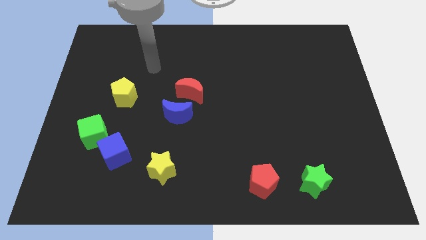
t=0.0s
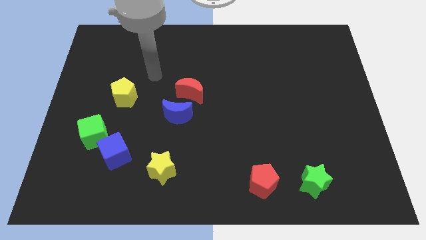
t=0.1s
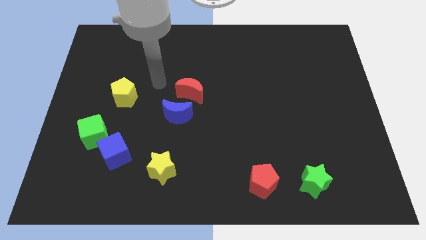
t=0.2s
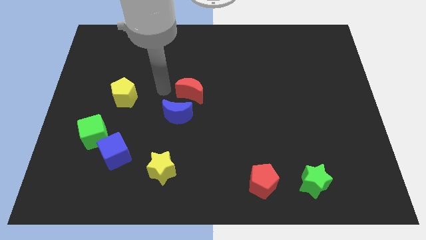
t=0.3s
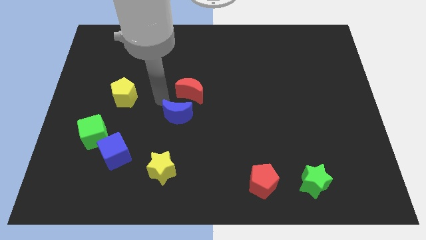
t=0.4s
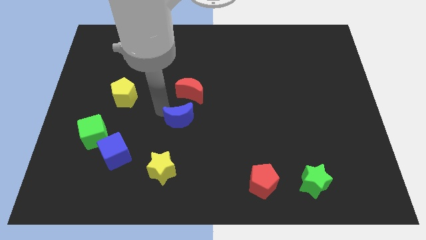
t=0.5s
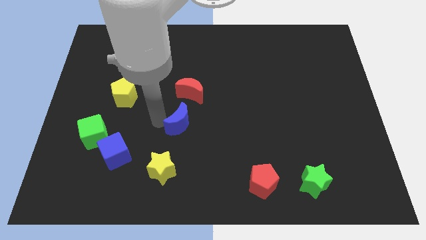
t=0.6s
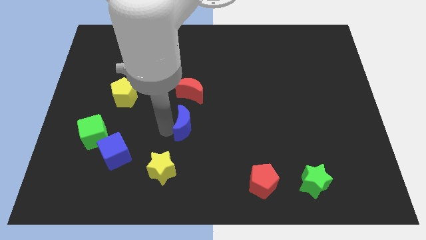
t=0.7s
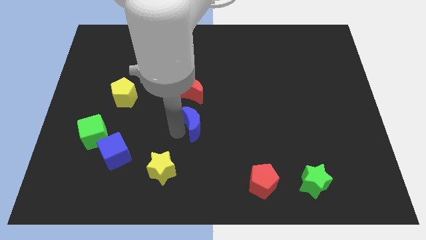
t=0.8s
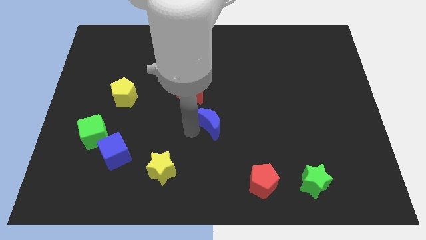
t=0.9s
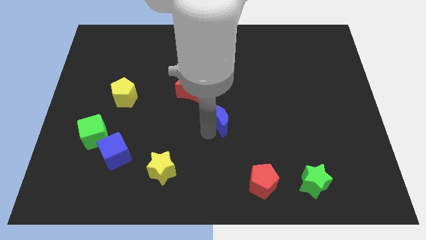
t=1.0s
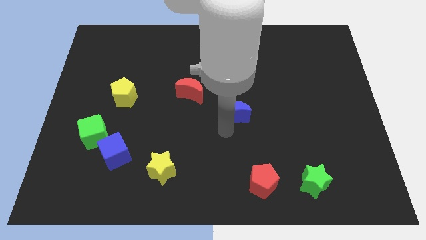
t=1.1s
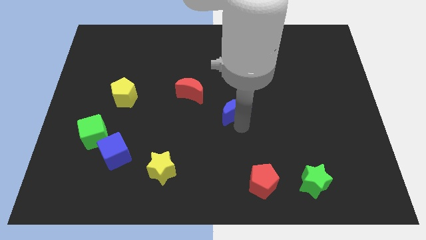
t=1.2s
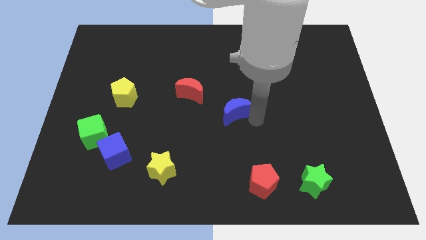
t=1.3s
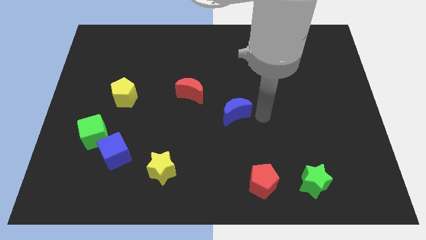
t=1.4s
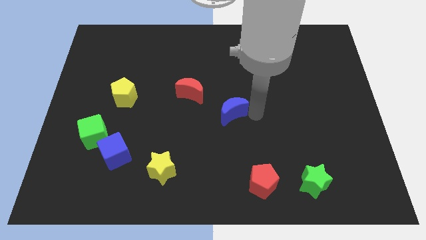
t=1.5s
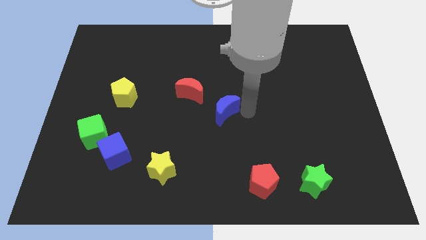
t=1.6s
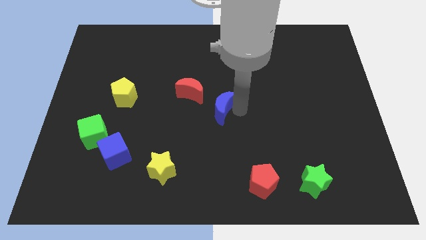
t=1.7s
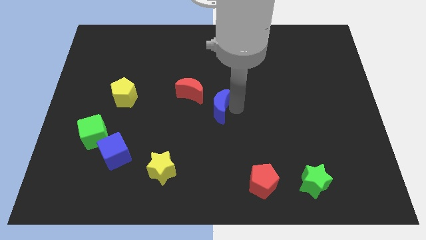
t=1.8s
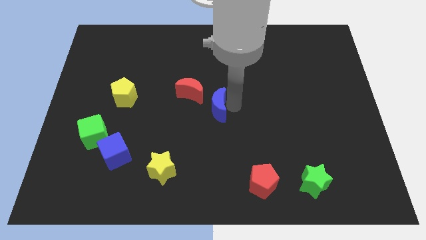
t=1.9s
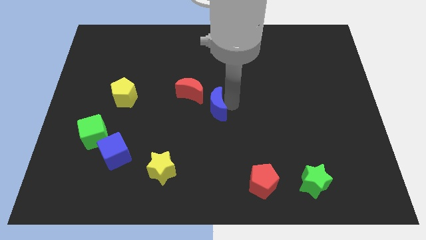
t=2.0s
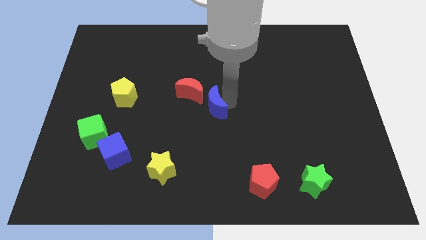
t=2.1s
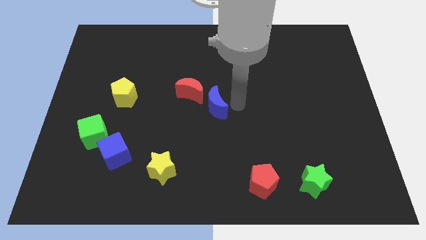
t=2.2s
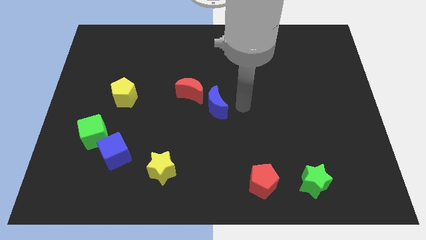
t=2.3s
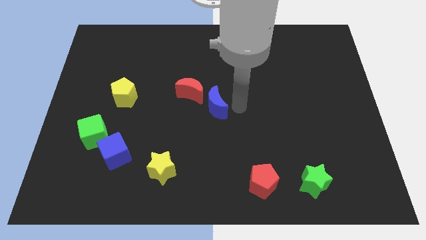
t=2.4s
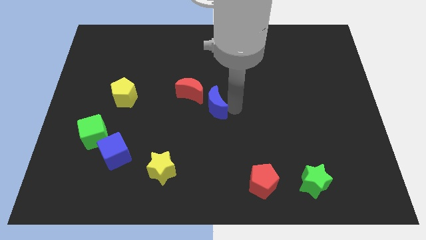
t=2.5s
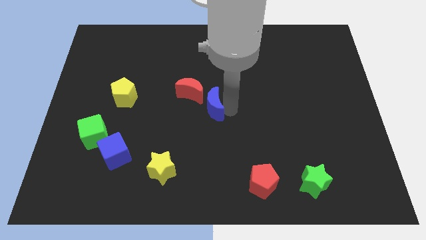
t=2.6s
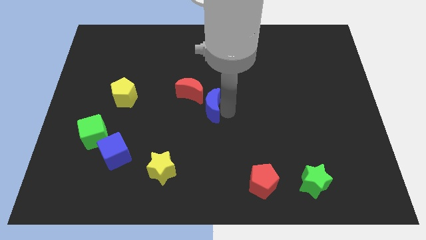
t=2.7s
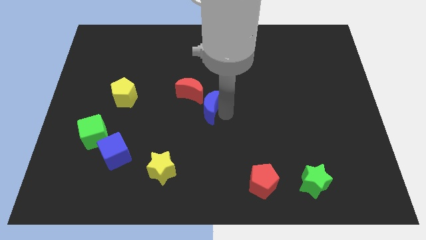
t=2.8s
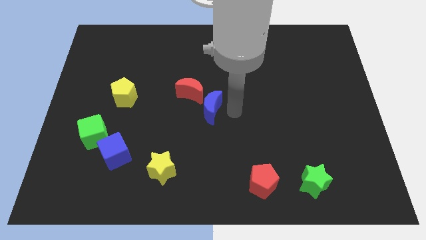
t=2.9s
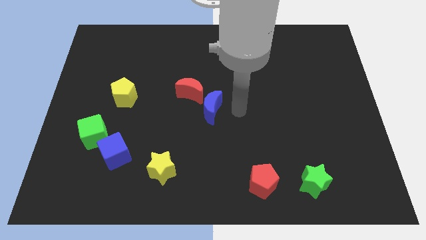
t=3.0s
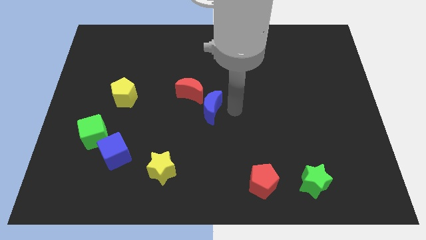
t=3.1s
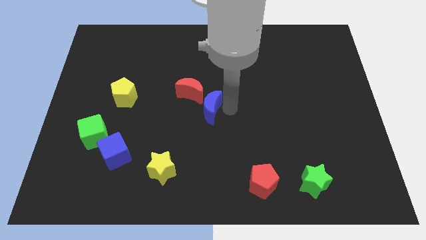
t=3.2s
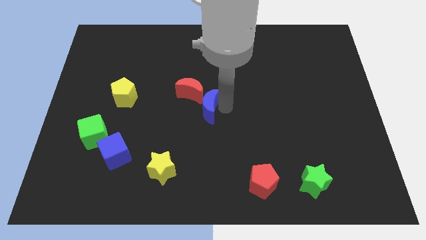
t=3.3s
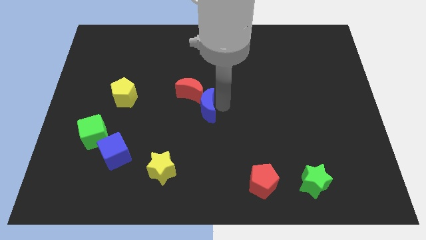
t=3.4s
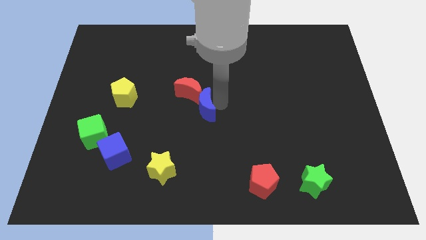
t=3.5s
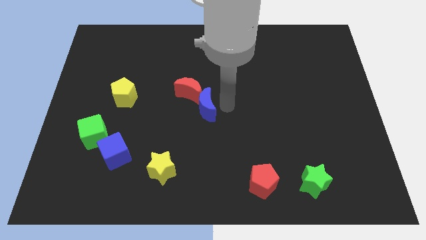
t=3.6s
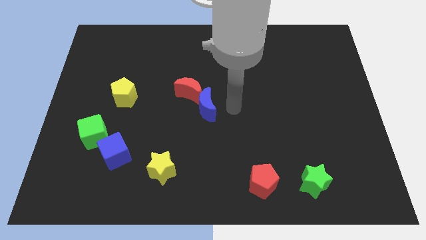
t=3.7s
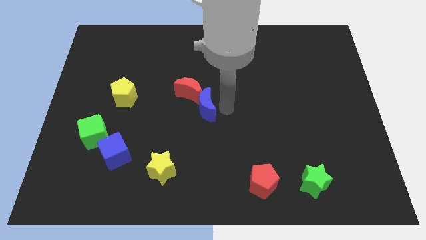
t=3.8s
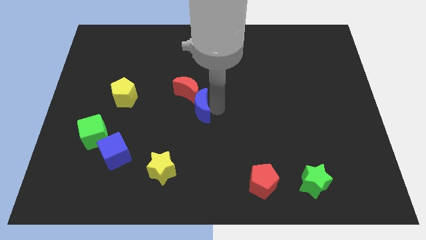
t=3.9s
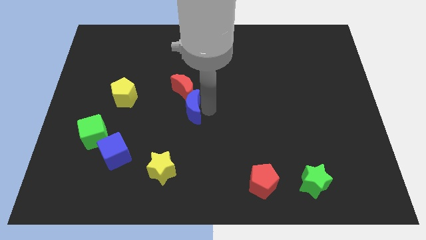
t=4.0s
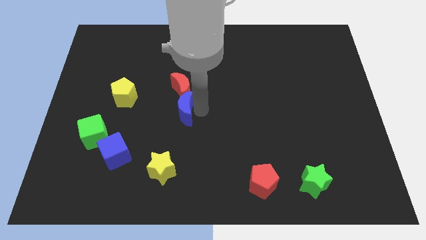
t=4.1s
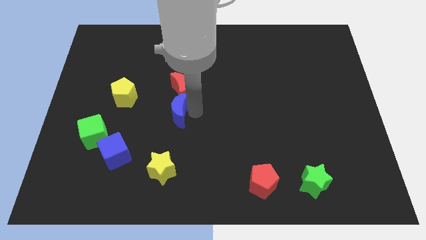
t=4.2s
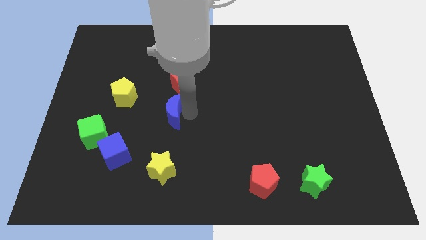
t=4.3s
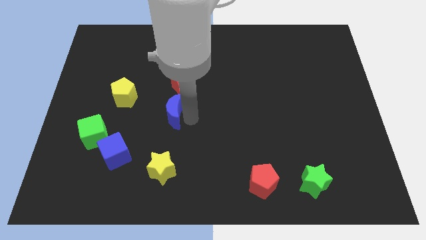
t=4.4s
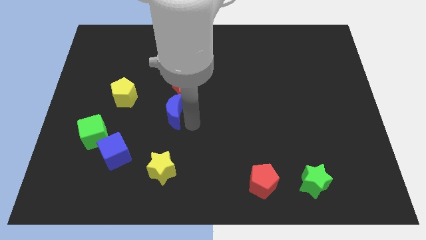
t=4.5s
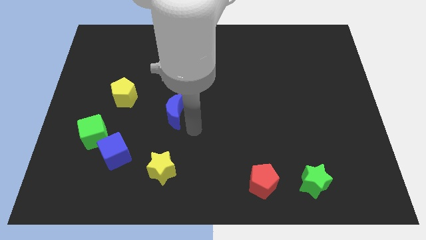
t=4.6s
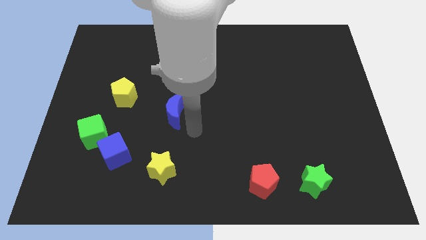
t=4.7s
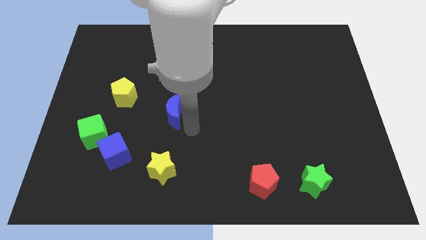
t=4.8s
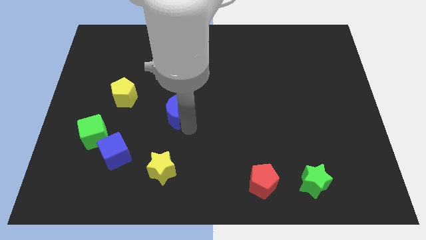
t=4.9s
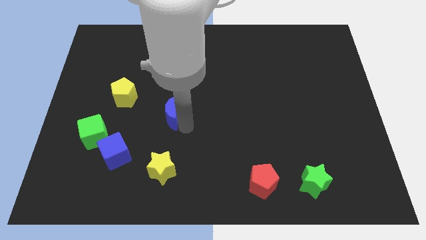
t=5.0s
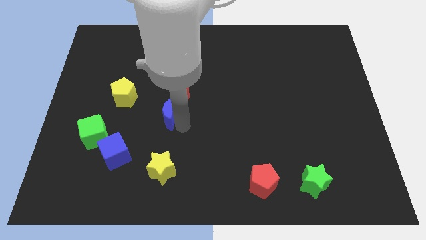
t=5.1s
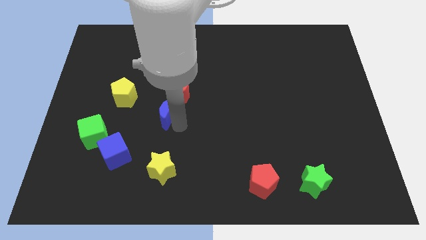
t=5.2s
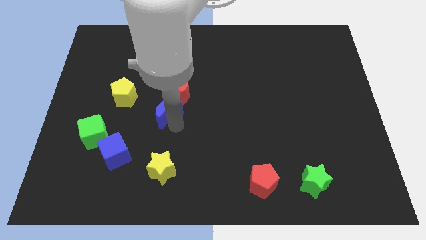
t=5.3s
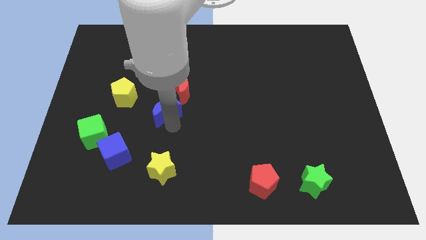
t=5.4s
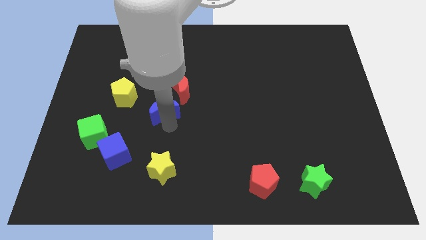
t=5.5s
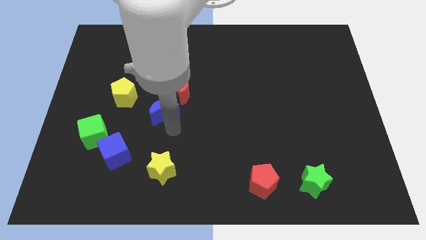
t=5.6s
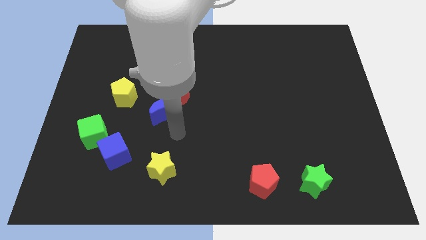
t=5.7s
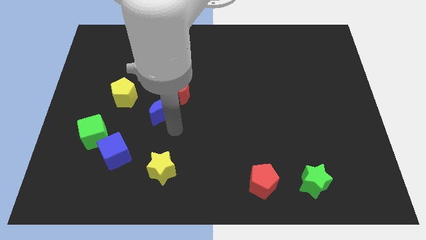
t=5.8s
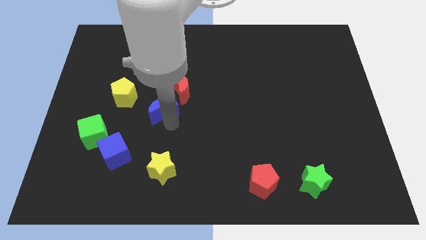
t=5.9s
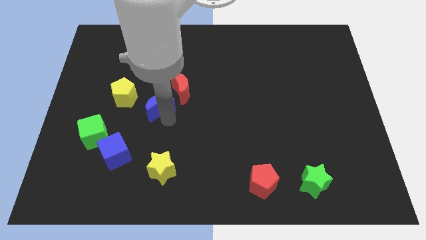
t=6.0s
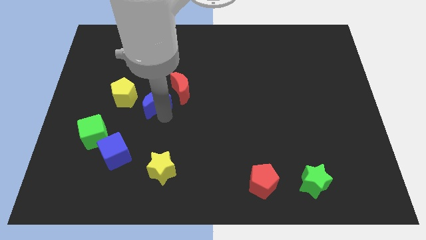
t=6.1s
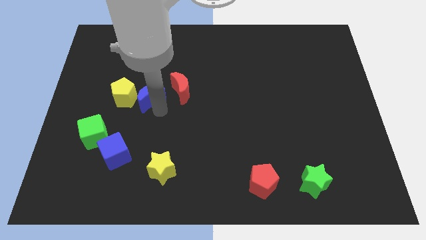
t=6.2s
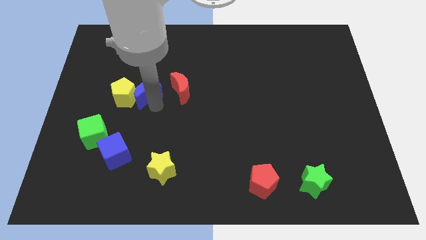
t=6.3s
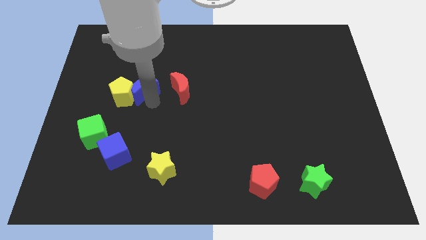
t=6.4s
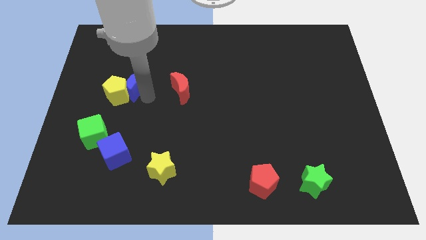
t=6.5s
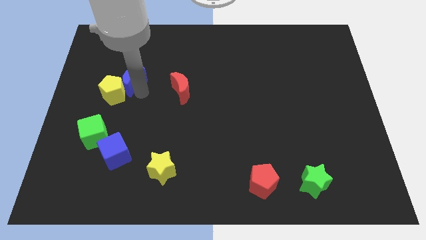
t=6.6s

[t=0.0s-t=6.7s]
push the blue moon to the top side of the yellow pentagon

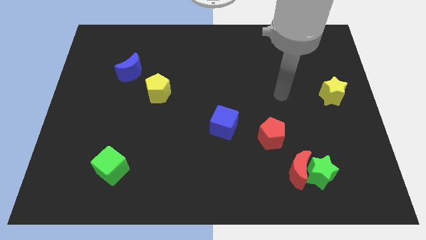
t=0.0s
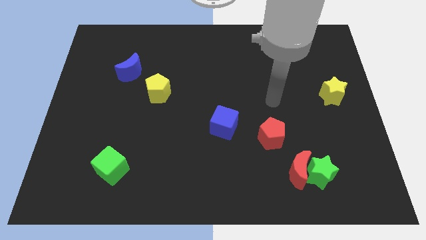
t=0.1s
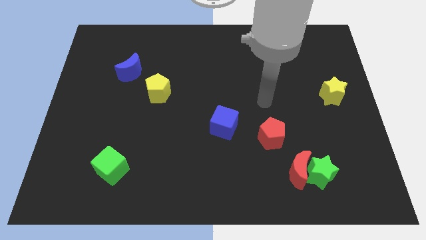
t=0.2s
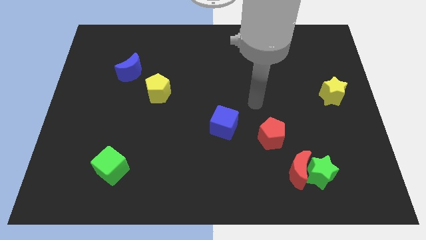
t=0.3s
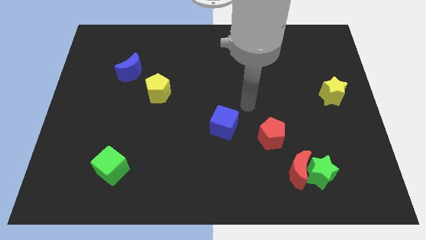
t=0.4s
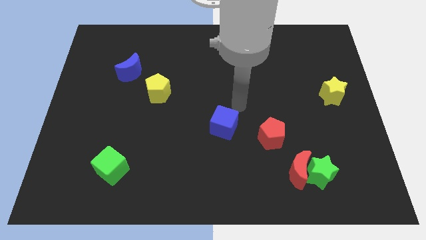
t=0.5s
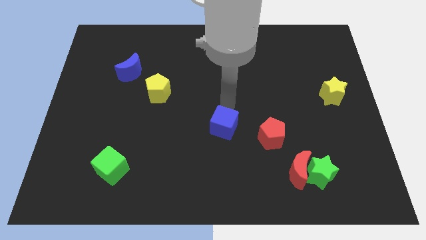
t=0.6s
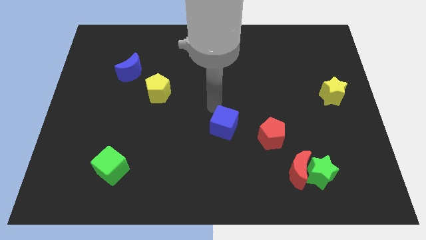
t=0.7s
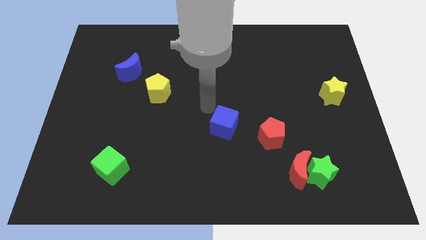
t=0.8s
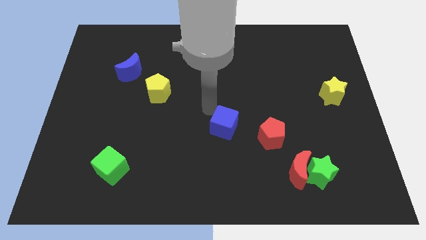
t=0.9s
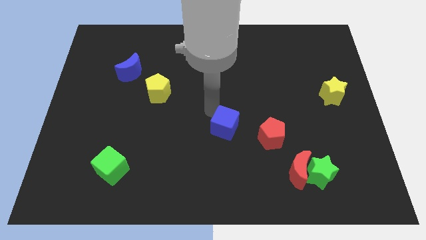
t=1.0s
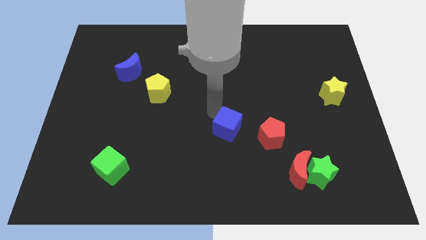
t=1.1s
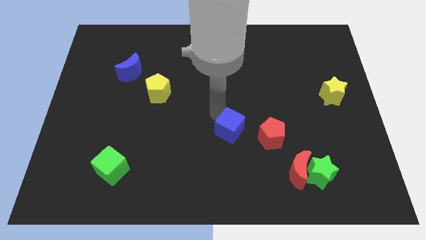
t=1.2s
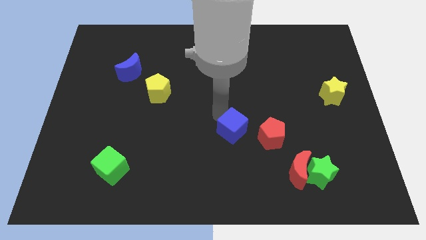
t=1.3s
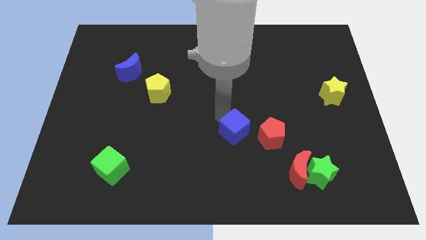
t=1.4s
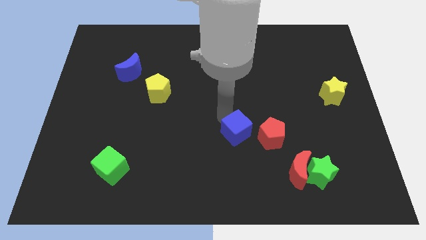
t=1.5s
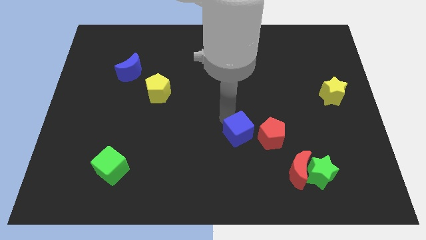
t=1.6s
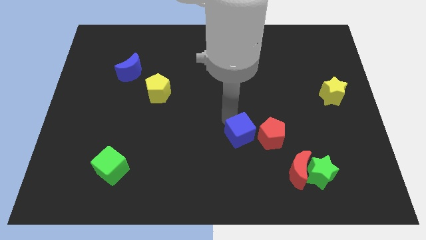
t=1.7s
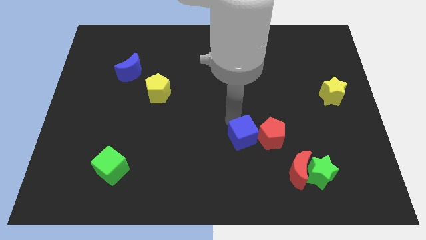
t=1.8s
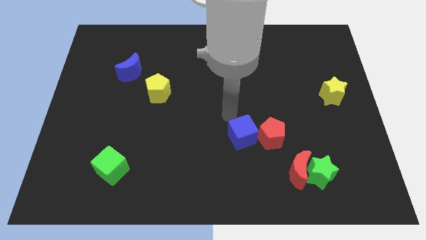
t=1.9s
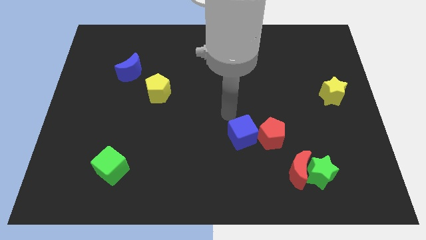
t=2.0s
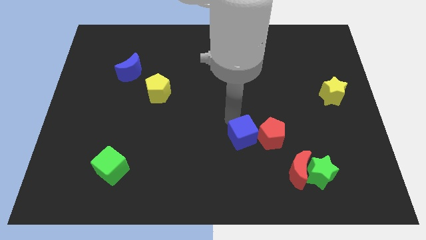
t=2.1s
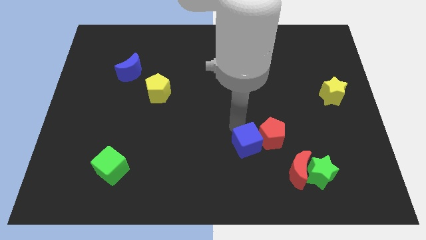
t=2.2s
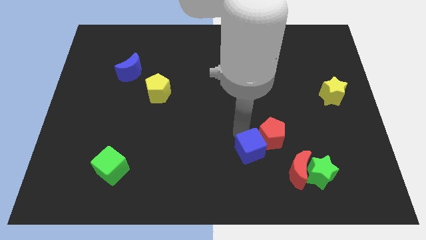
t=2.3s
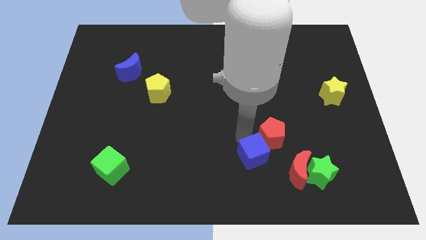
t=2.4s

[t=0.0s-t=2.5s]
push the blue cube to the bottom of the red pentagon
